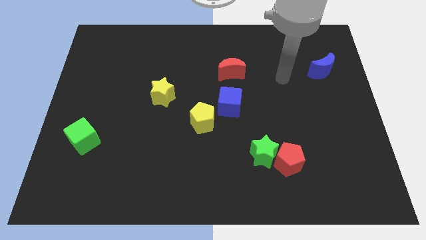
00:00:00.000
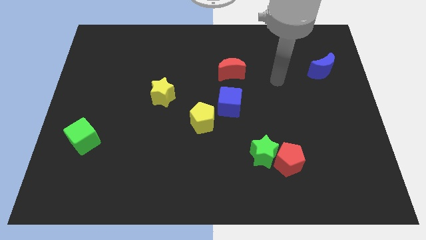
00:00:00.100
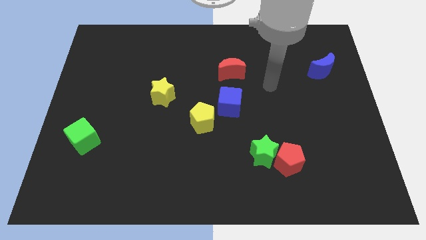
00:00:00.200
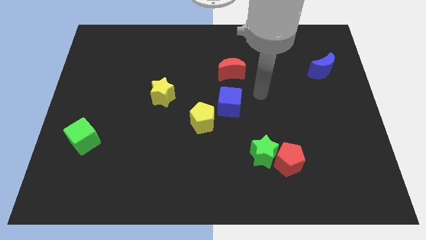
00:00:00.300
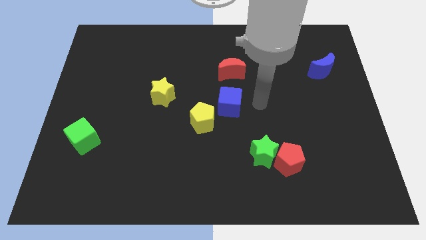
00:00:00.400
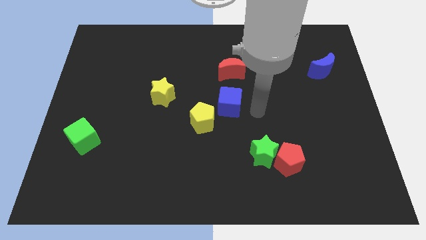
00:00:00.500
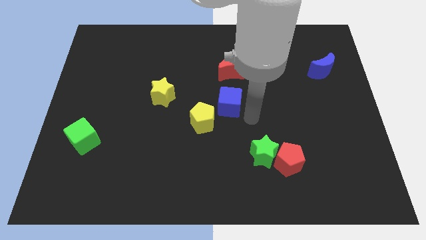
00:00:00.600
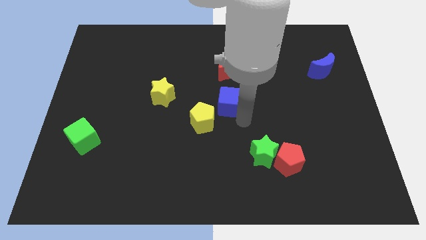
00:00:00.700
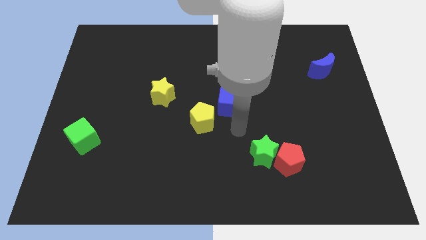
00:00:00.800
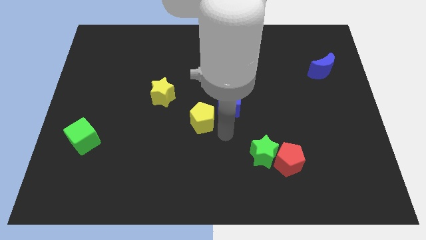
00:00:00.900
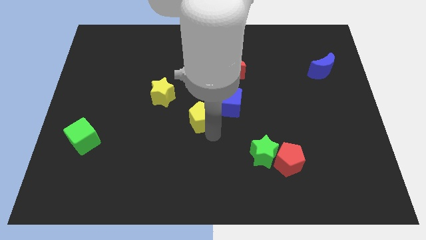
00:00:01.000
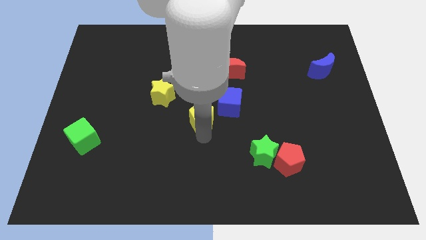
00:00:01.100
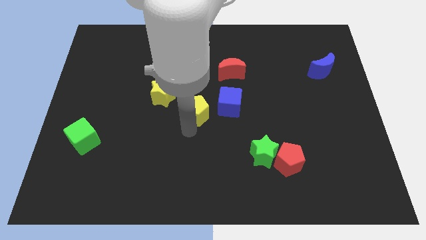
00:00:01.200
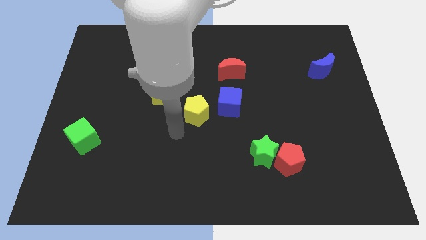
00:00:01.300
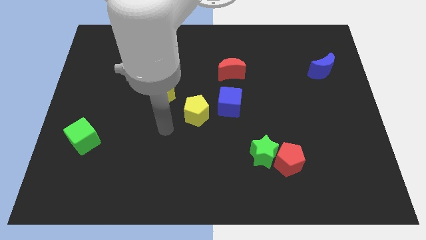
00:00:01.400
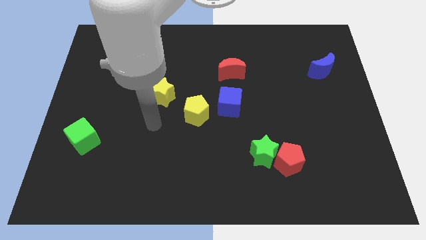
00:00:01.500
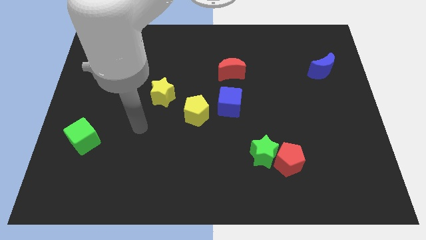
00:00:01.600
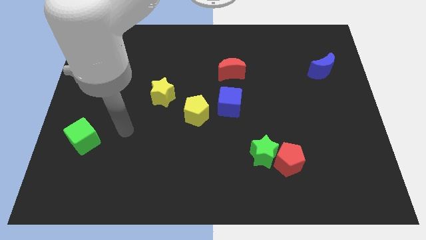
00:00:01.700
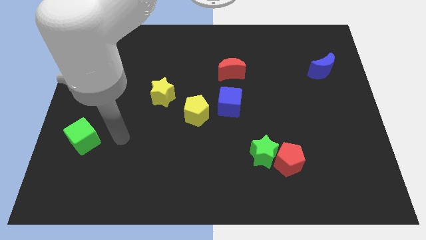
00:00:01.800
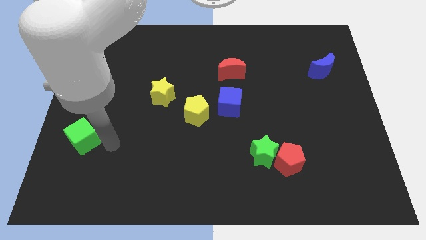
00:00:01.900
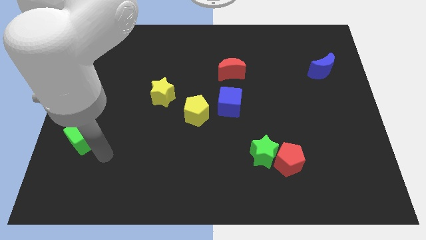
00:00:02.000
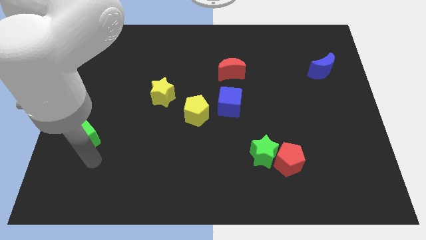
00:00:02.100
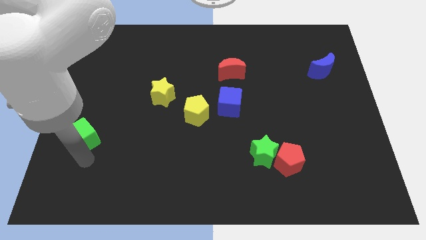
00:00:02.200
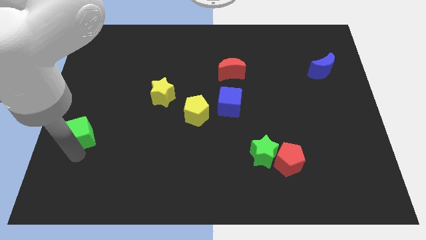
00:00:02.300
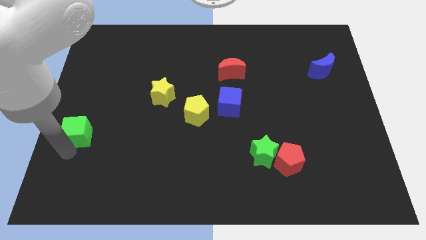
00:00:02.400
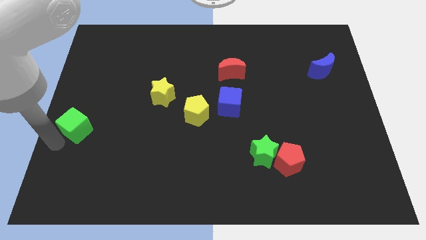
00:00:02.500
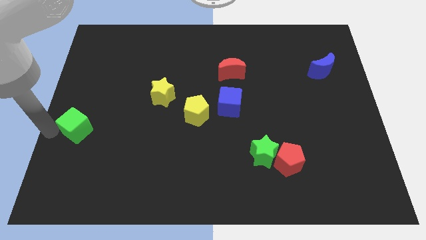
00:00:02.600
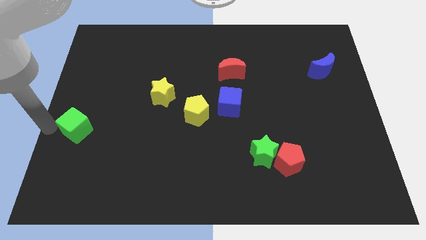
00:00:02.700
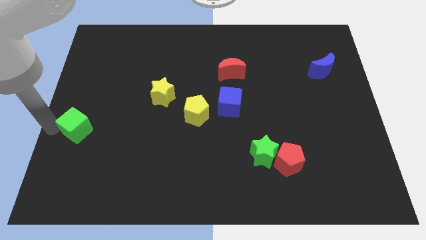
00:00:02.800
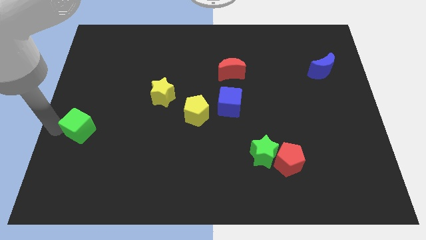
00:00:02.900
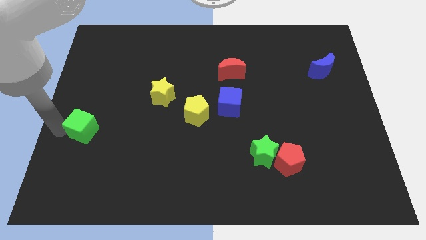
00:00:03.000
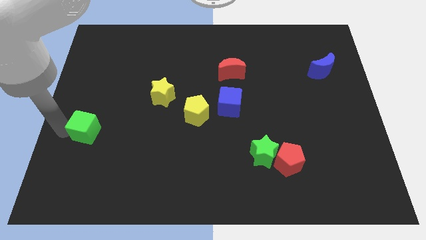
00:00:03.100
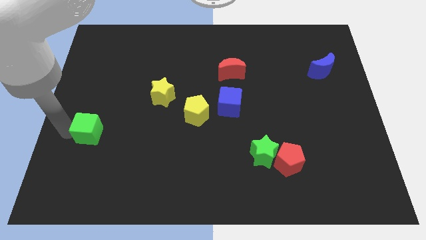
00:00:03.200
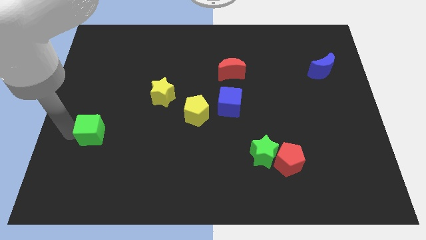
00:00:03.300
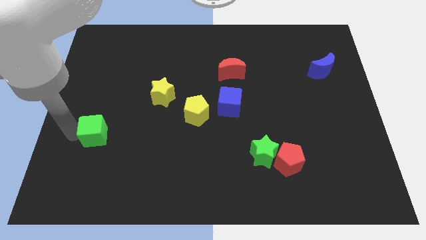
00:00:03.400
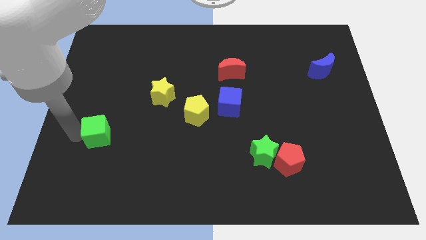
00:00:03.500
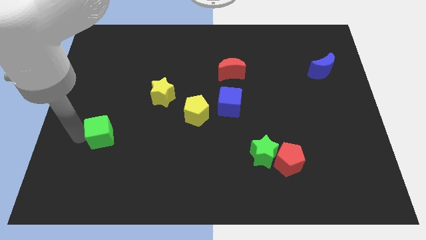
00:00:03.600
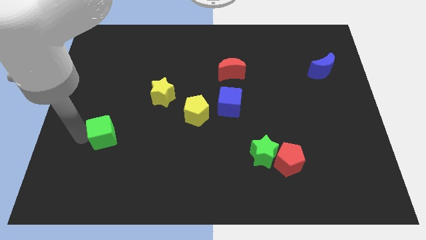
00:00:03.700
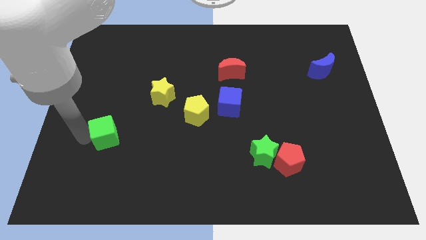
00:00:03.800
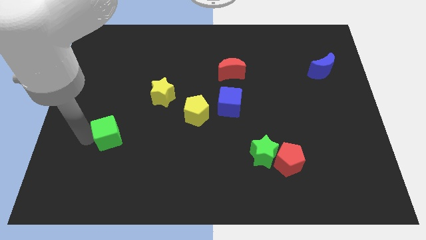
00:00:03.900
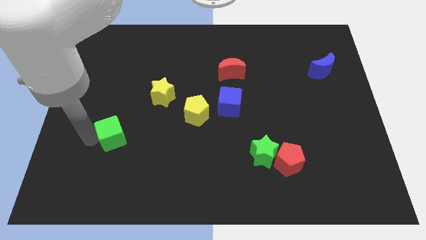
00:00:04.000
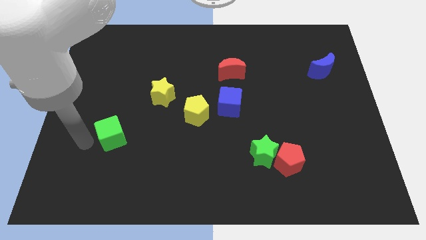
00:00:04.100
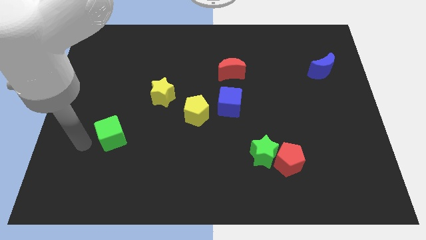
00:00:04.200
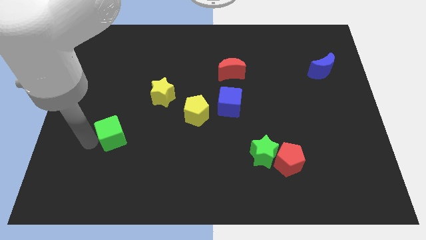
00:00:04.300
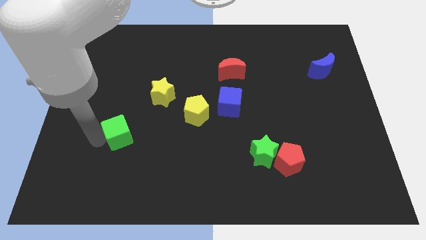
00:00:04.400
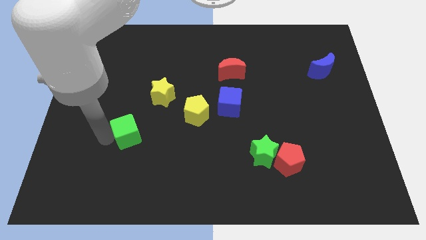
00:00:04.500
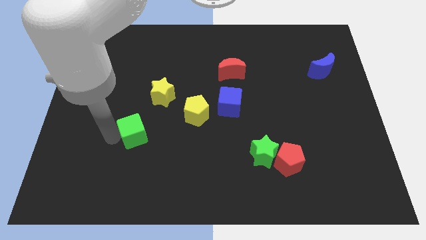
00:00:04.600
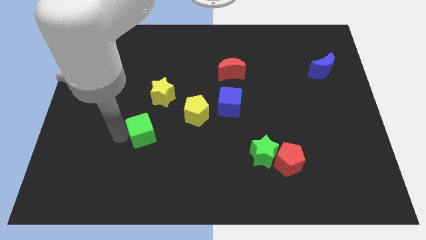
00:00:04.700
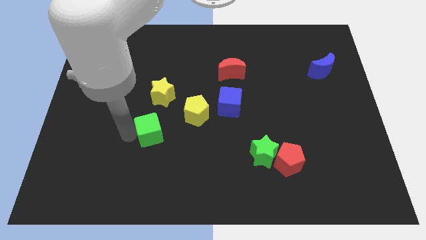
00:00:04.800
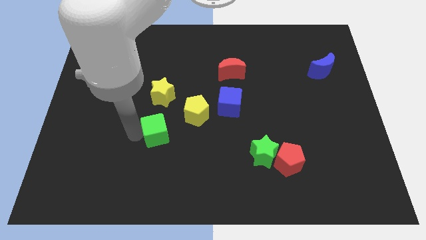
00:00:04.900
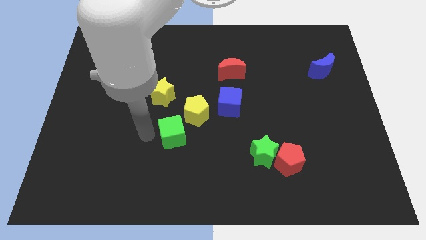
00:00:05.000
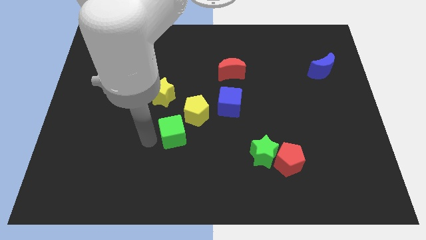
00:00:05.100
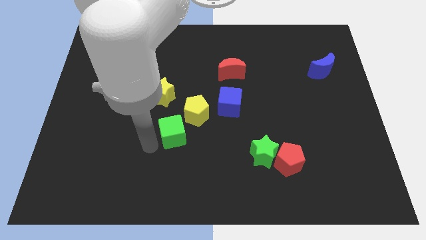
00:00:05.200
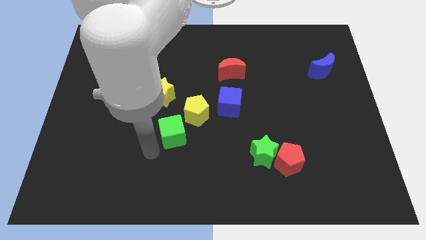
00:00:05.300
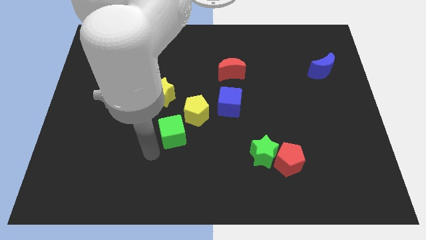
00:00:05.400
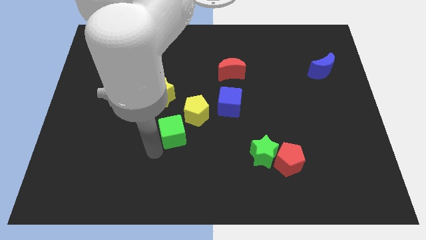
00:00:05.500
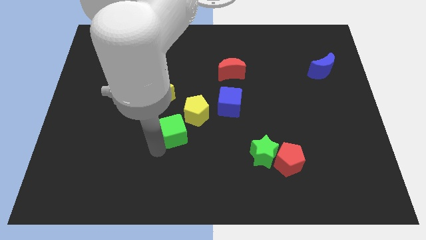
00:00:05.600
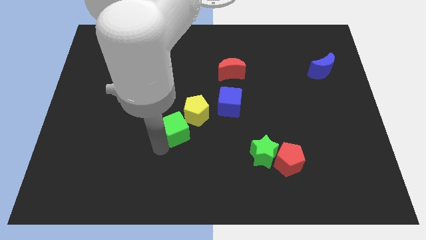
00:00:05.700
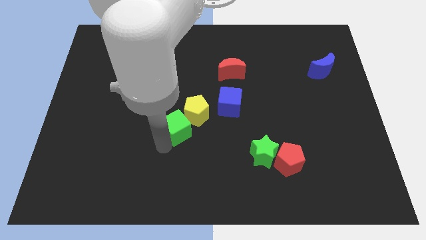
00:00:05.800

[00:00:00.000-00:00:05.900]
put the green cube next to the yellow pentagon

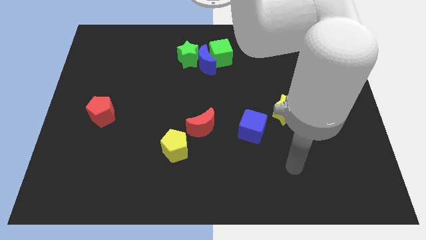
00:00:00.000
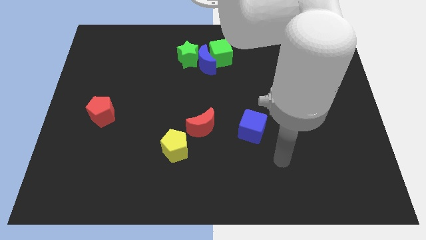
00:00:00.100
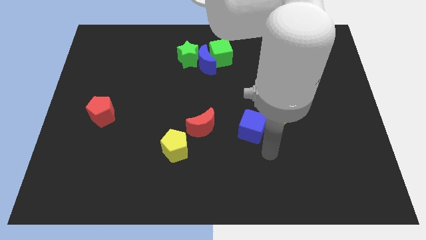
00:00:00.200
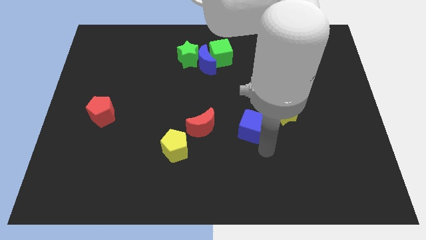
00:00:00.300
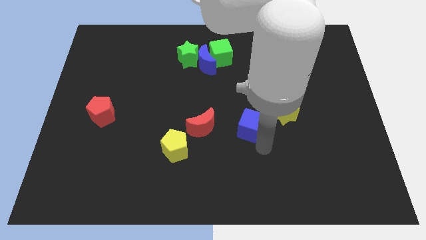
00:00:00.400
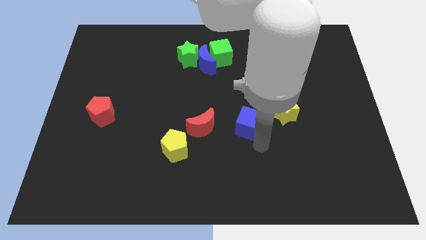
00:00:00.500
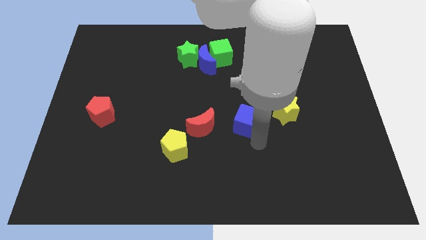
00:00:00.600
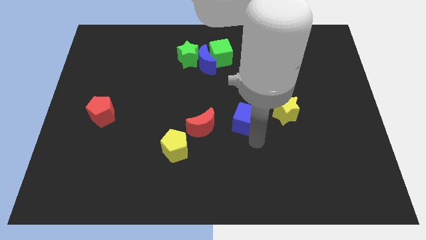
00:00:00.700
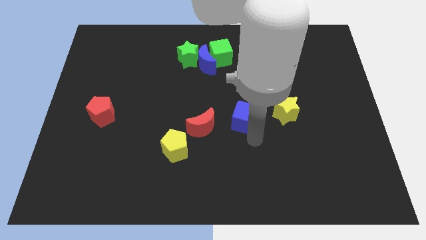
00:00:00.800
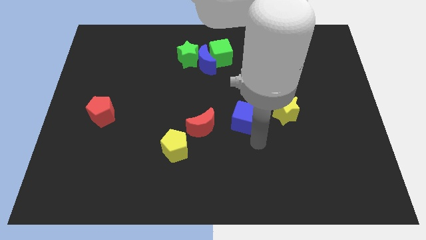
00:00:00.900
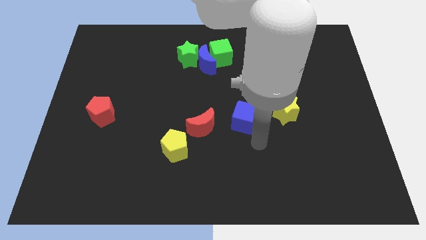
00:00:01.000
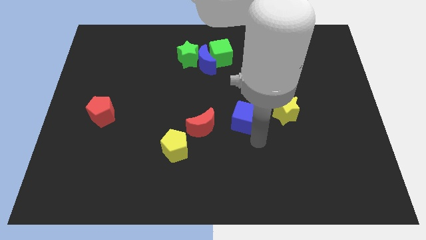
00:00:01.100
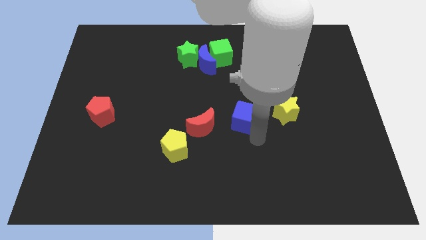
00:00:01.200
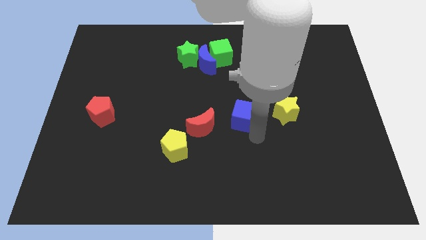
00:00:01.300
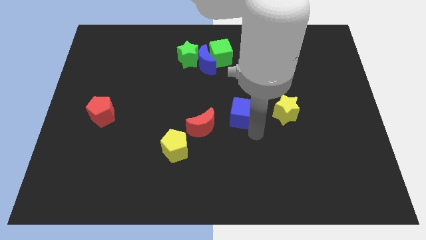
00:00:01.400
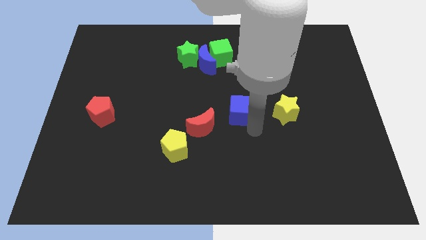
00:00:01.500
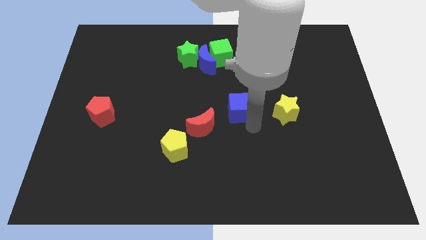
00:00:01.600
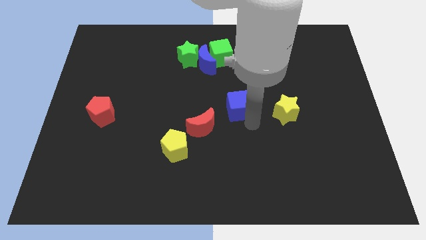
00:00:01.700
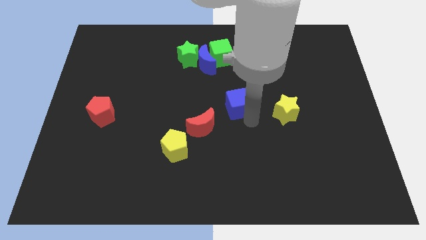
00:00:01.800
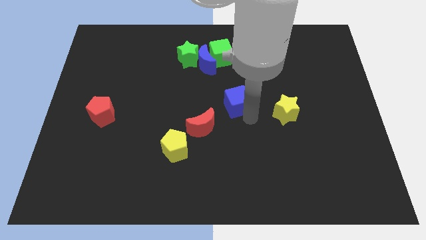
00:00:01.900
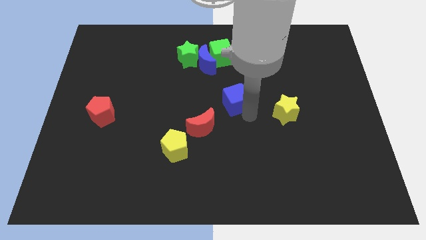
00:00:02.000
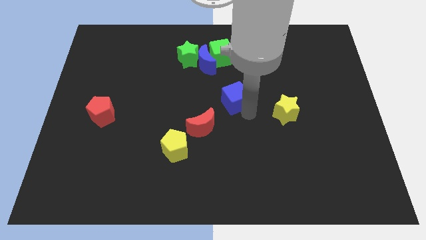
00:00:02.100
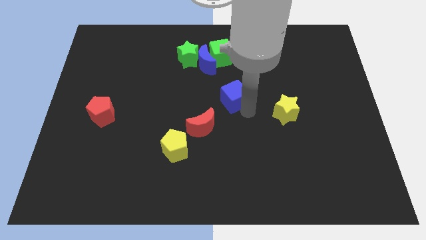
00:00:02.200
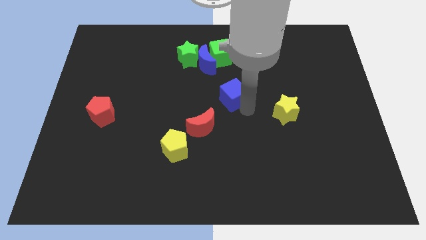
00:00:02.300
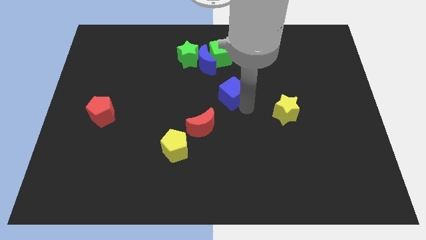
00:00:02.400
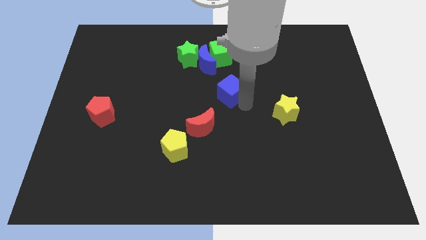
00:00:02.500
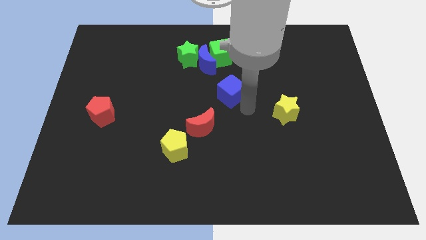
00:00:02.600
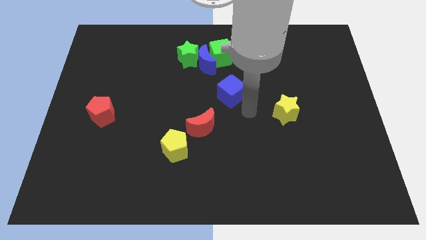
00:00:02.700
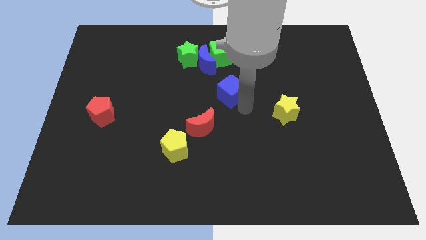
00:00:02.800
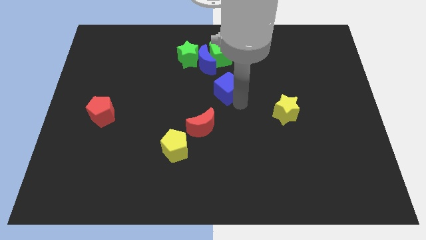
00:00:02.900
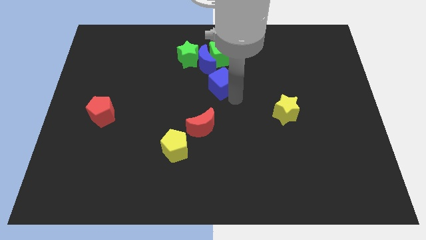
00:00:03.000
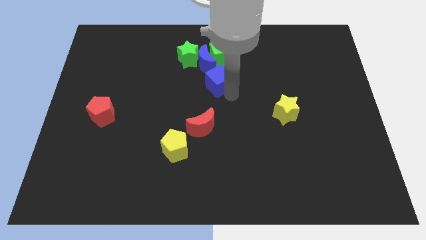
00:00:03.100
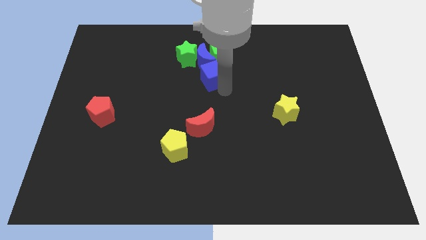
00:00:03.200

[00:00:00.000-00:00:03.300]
put the blue cube to the blue moon
